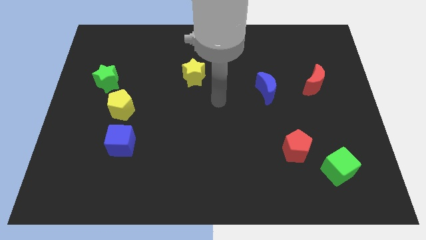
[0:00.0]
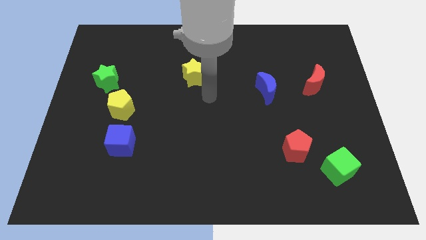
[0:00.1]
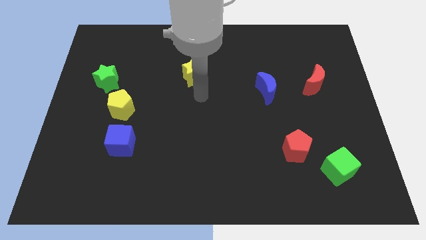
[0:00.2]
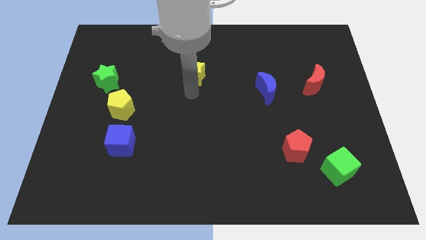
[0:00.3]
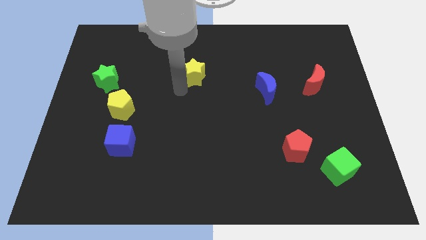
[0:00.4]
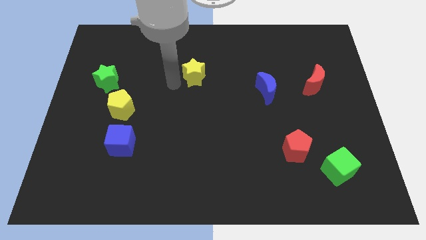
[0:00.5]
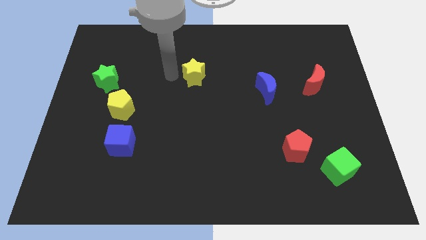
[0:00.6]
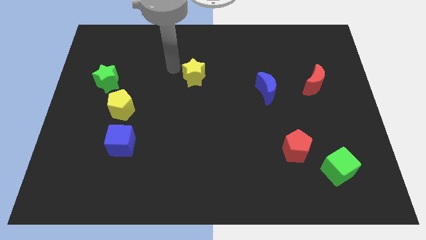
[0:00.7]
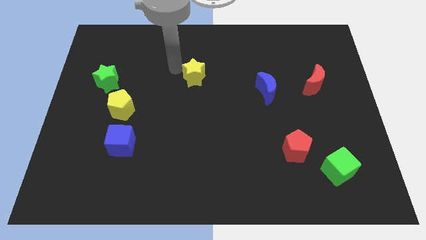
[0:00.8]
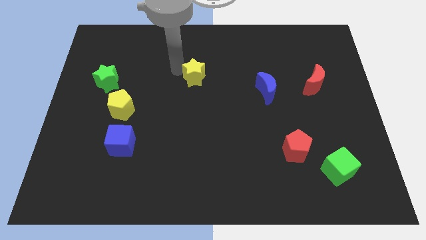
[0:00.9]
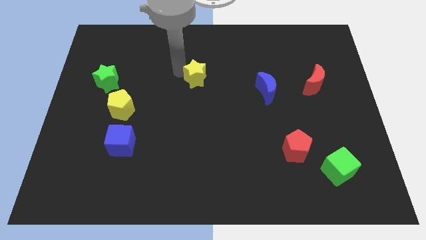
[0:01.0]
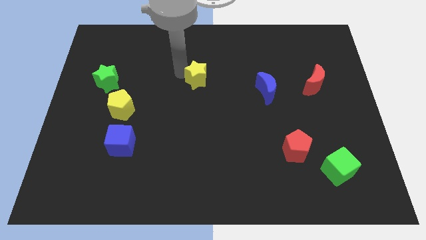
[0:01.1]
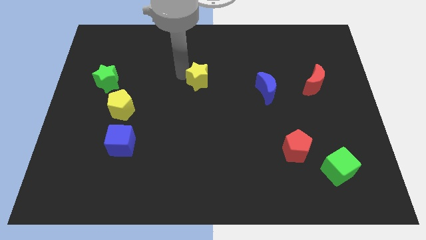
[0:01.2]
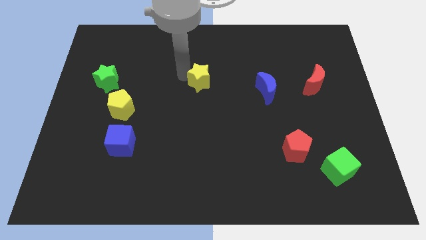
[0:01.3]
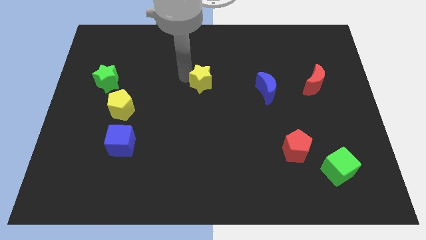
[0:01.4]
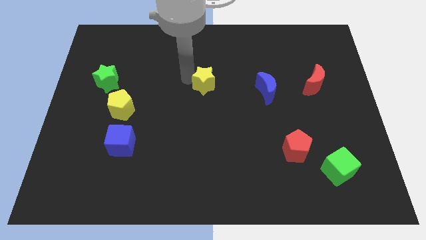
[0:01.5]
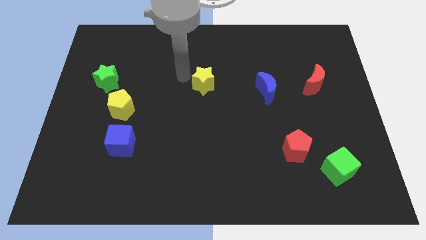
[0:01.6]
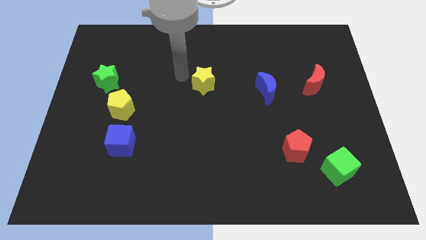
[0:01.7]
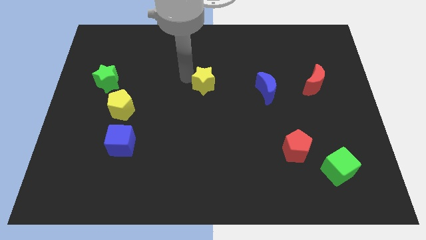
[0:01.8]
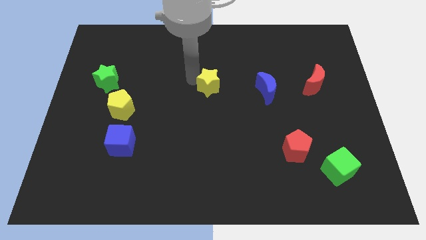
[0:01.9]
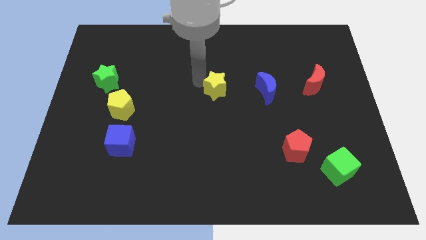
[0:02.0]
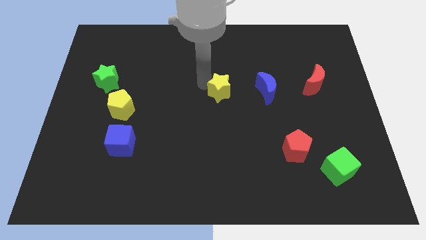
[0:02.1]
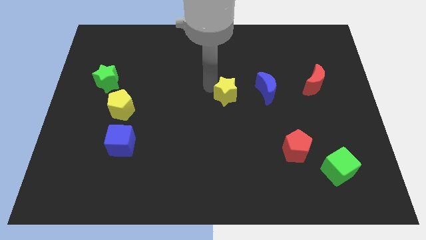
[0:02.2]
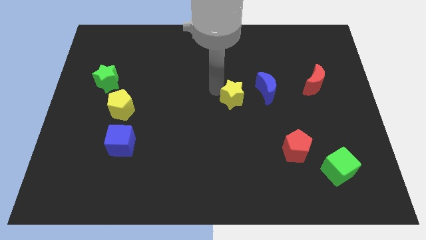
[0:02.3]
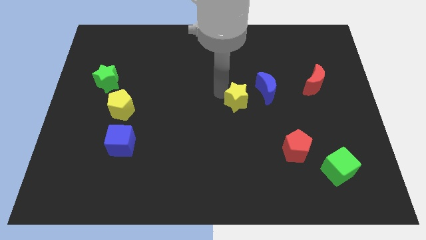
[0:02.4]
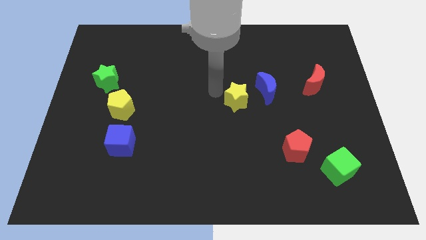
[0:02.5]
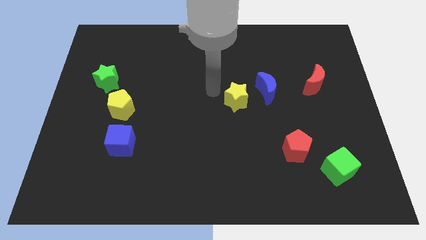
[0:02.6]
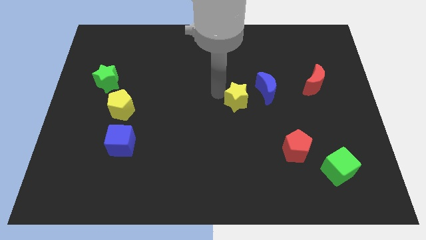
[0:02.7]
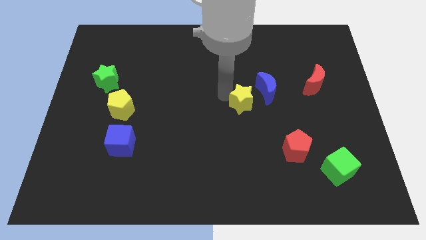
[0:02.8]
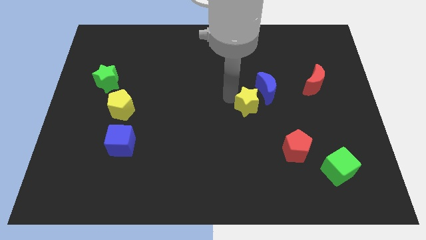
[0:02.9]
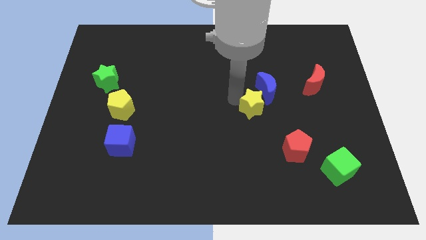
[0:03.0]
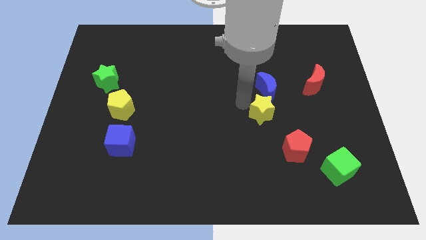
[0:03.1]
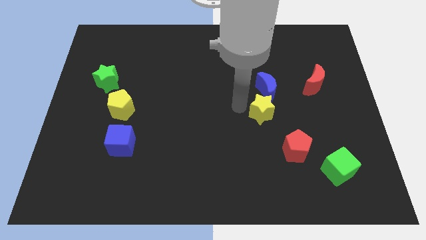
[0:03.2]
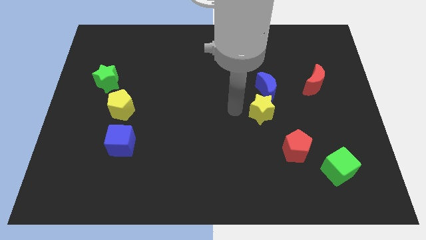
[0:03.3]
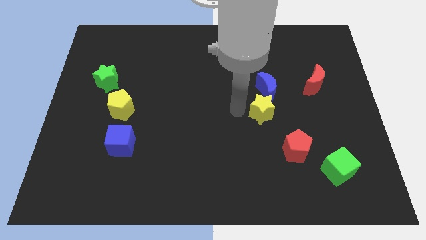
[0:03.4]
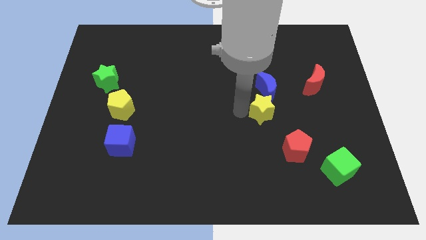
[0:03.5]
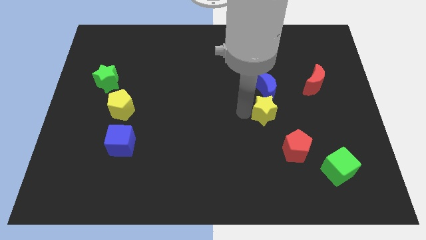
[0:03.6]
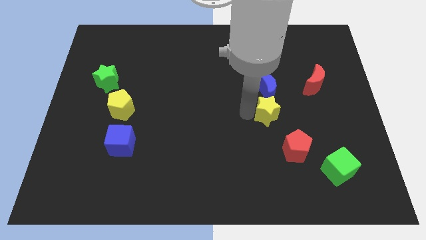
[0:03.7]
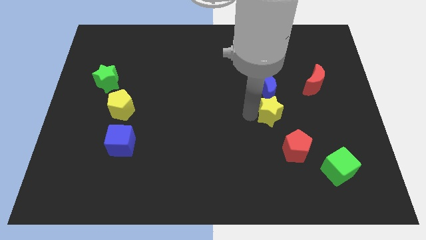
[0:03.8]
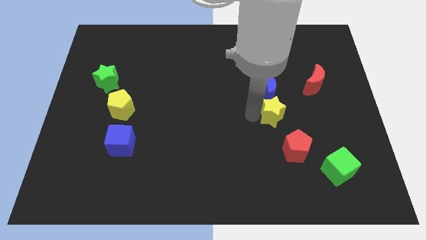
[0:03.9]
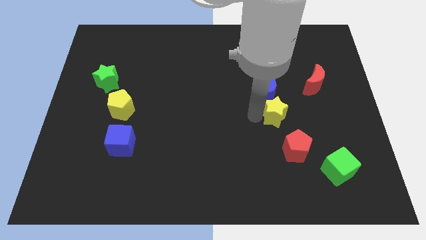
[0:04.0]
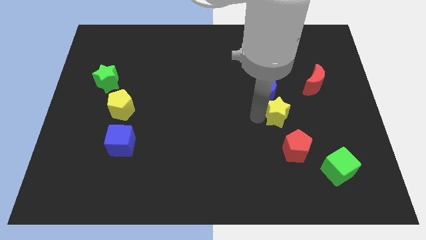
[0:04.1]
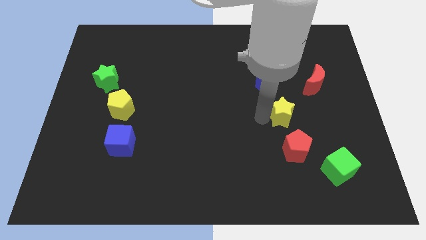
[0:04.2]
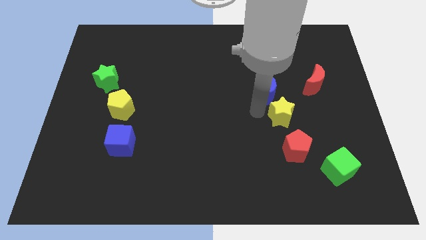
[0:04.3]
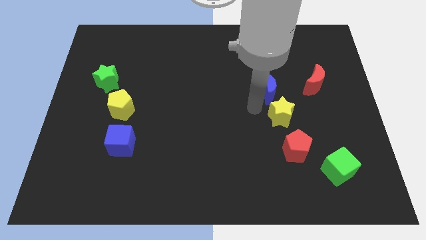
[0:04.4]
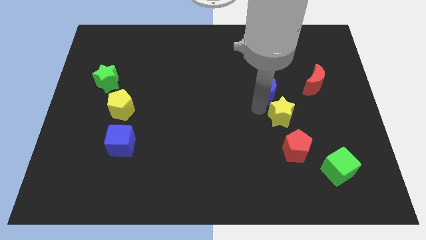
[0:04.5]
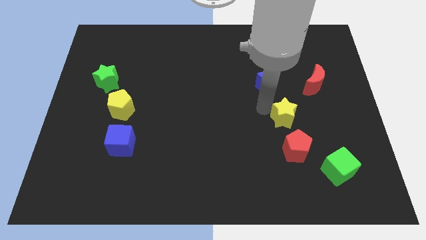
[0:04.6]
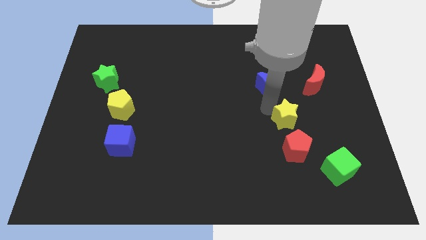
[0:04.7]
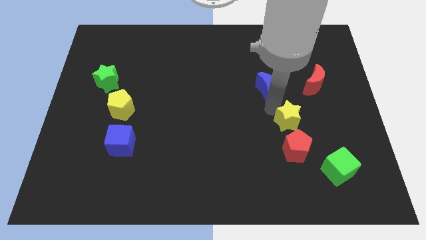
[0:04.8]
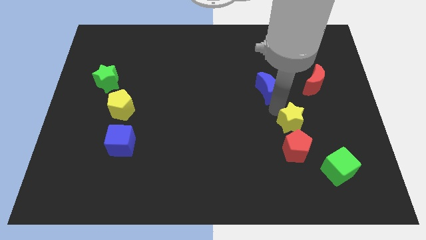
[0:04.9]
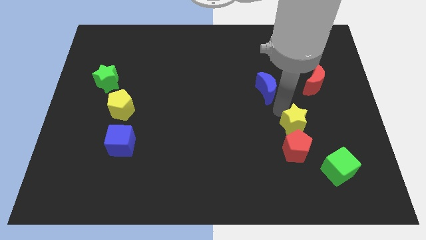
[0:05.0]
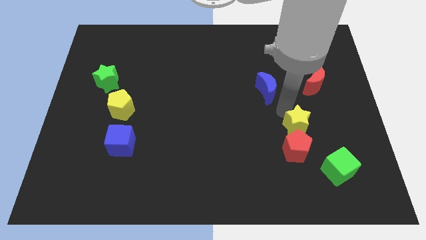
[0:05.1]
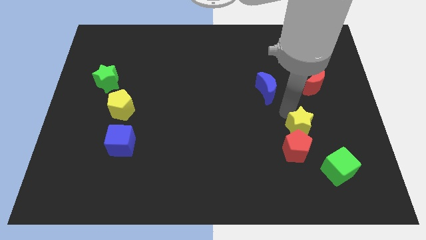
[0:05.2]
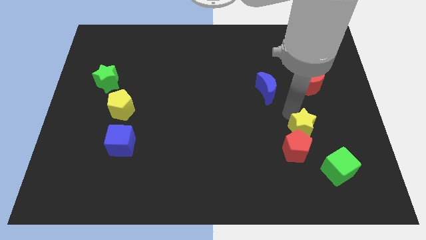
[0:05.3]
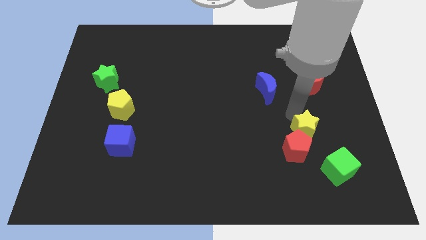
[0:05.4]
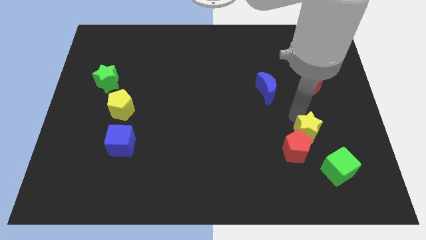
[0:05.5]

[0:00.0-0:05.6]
put the yellow star above the green cube

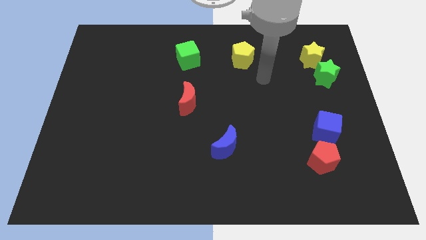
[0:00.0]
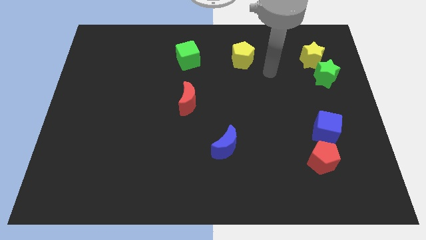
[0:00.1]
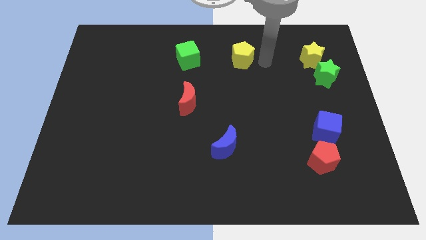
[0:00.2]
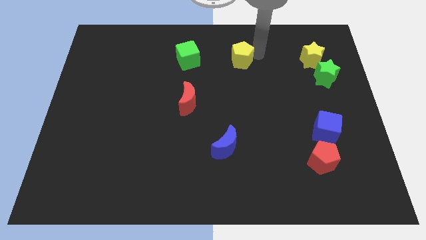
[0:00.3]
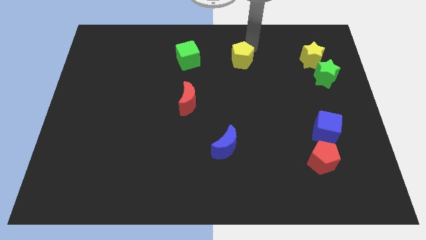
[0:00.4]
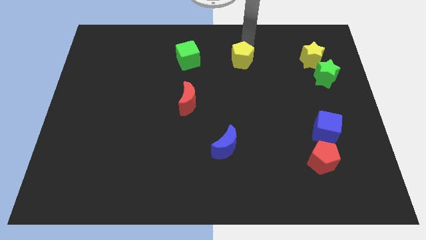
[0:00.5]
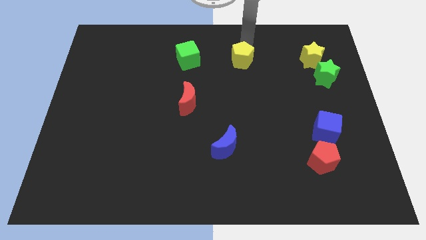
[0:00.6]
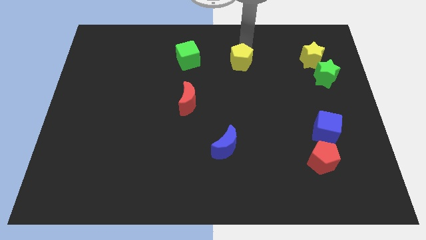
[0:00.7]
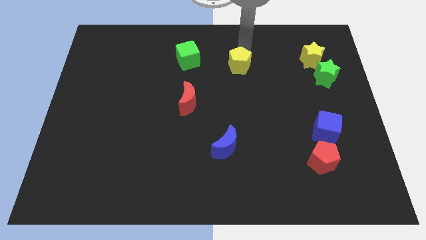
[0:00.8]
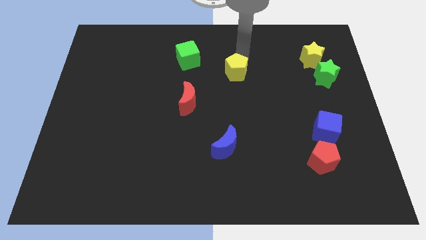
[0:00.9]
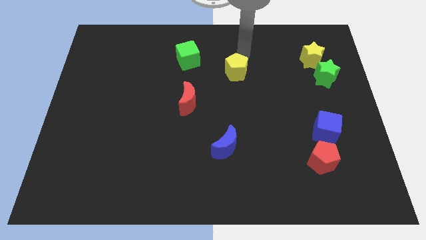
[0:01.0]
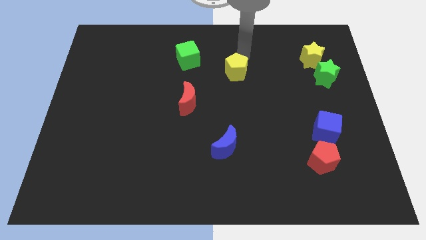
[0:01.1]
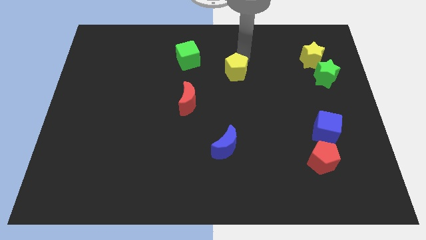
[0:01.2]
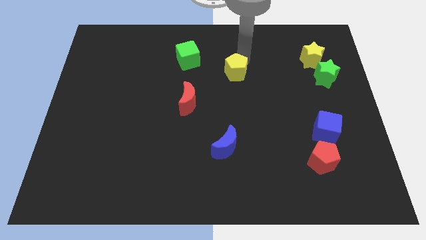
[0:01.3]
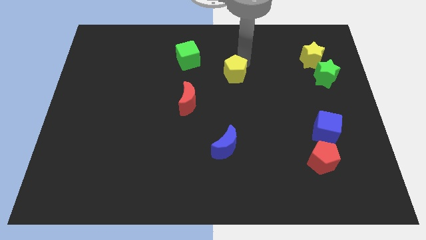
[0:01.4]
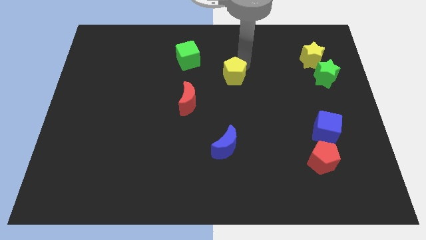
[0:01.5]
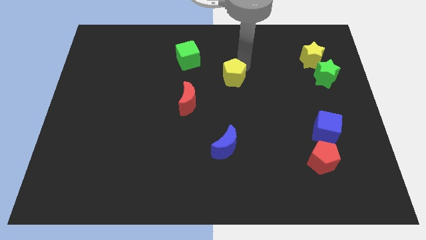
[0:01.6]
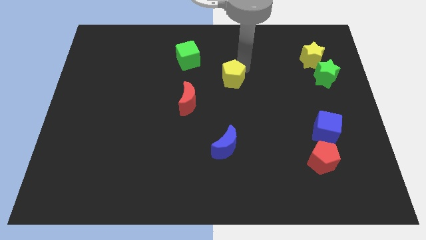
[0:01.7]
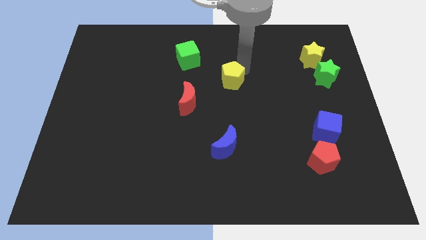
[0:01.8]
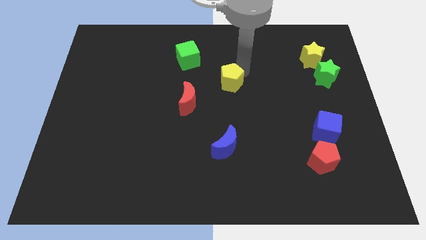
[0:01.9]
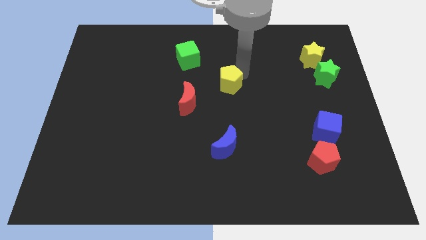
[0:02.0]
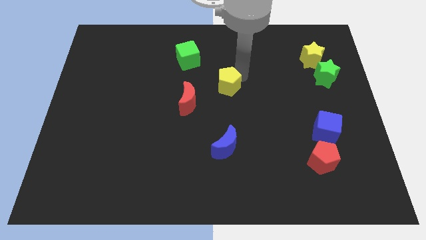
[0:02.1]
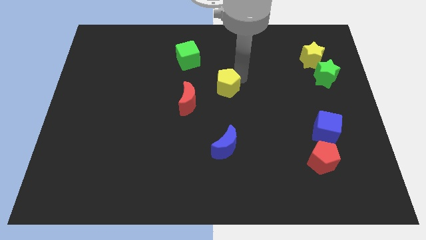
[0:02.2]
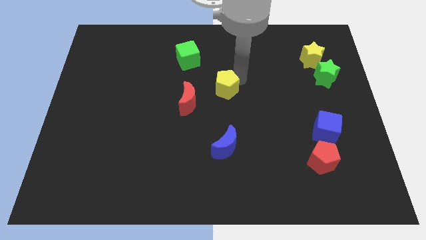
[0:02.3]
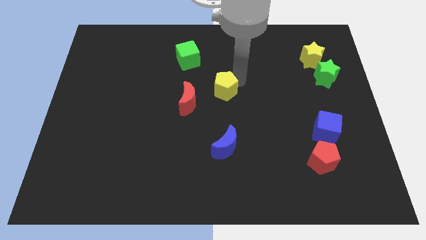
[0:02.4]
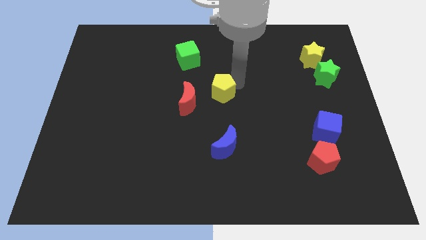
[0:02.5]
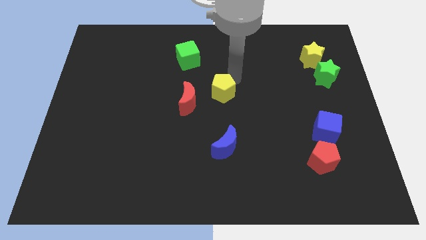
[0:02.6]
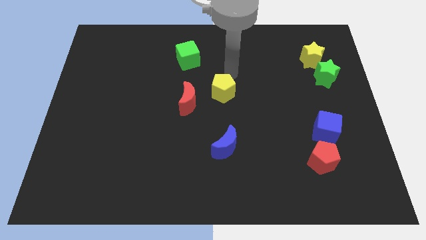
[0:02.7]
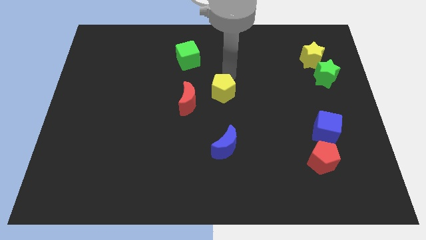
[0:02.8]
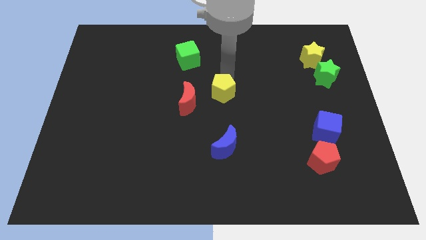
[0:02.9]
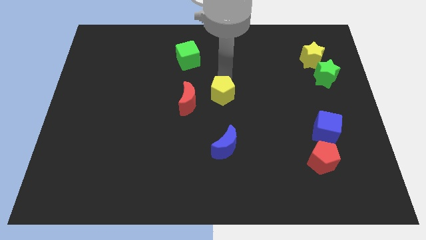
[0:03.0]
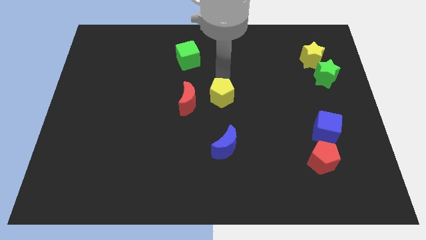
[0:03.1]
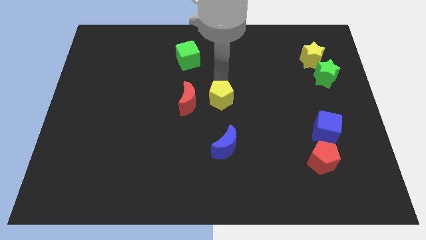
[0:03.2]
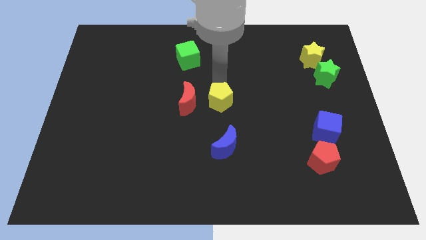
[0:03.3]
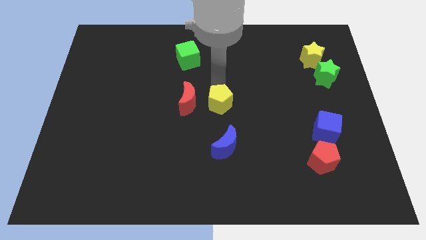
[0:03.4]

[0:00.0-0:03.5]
move the yellow pentagon to the bottom right of the red moon
